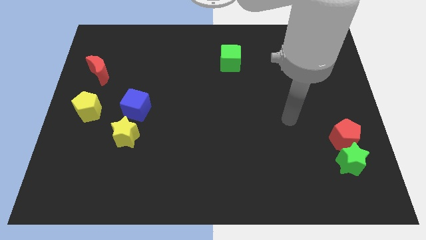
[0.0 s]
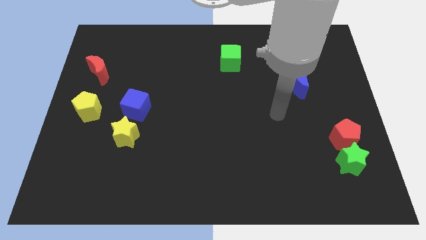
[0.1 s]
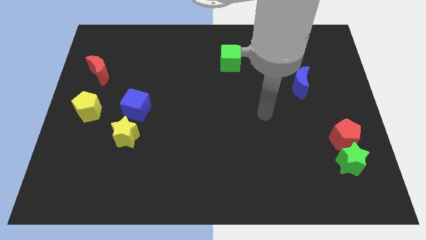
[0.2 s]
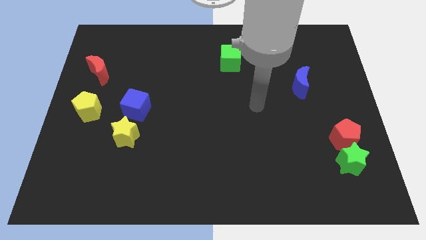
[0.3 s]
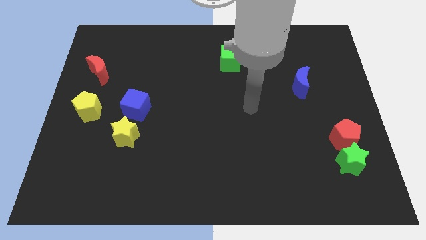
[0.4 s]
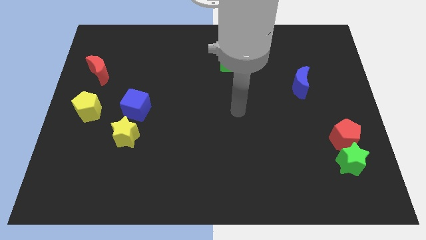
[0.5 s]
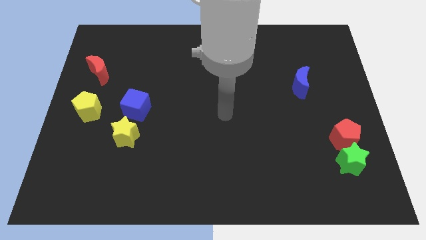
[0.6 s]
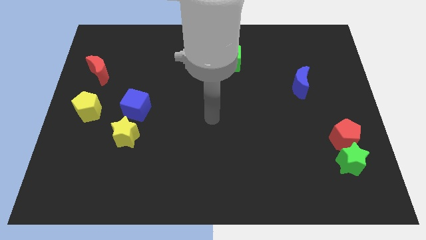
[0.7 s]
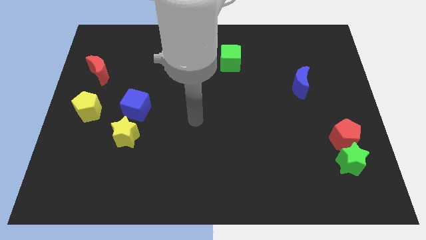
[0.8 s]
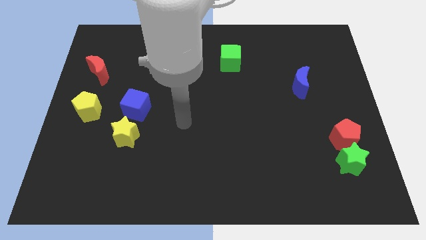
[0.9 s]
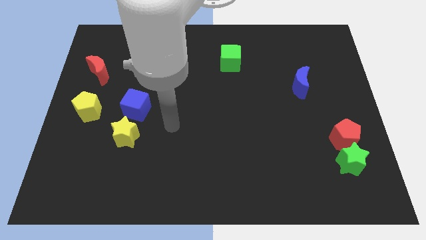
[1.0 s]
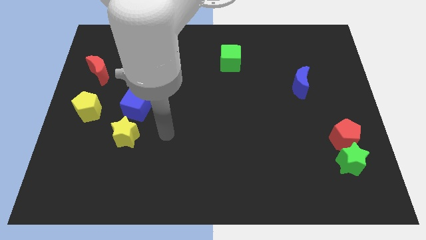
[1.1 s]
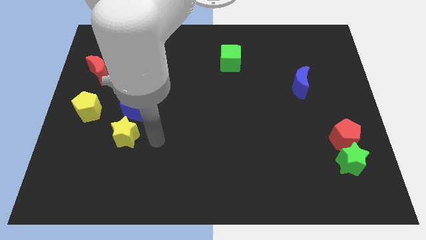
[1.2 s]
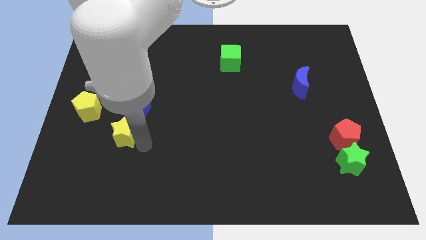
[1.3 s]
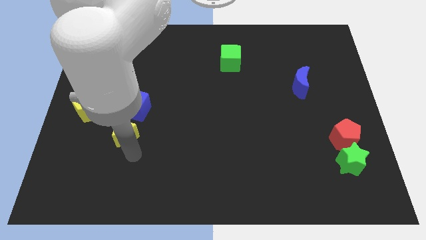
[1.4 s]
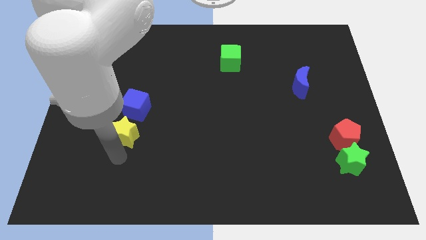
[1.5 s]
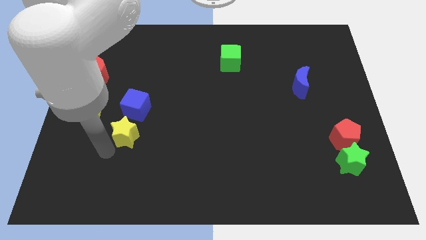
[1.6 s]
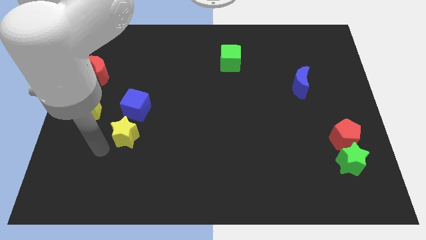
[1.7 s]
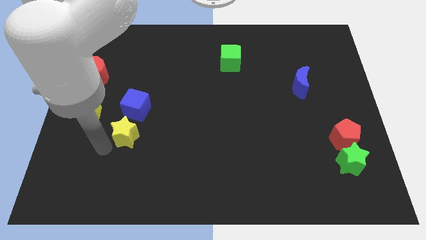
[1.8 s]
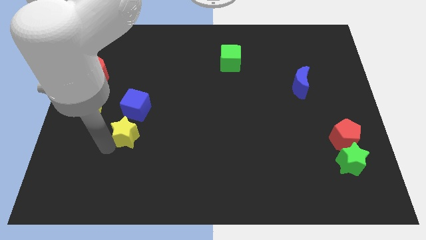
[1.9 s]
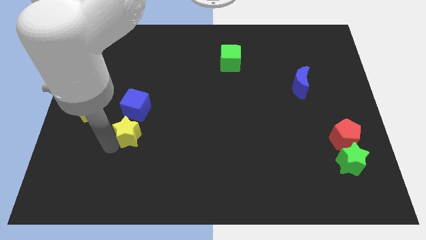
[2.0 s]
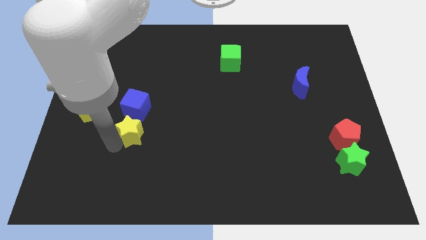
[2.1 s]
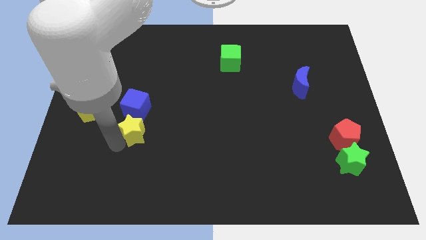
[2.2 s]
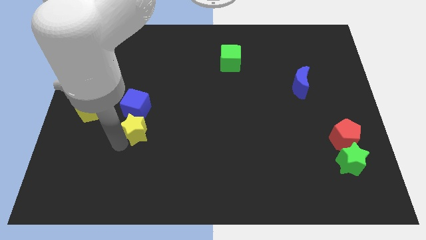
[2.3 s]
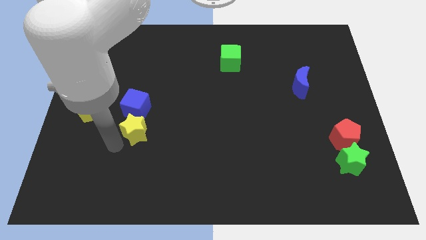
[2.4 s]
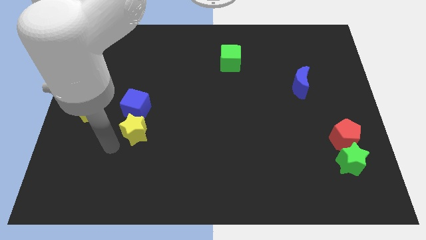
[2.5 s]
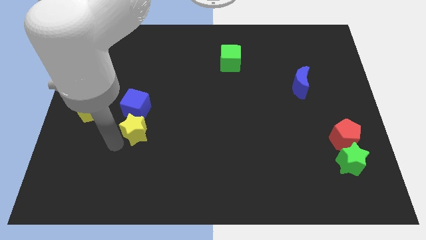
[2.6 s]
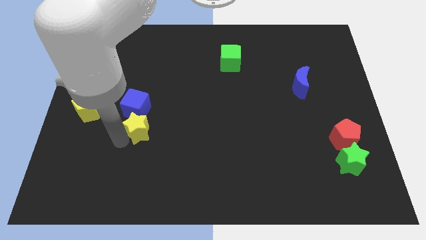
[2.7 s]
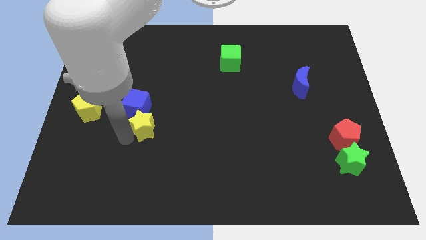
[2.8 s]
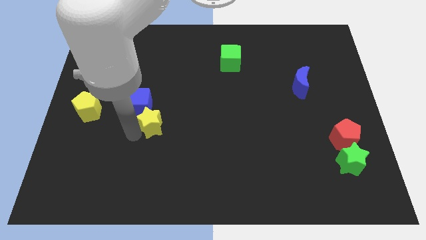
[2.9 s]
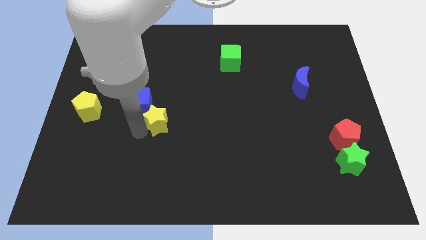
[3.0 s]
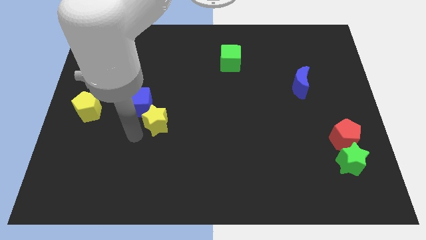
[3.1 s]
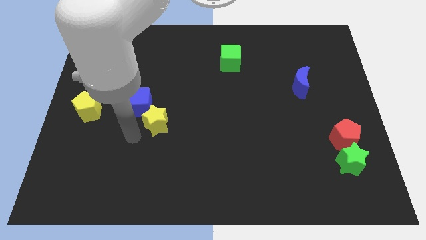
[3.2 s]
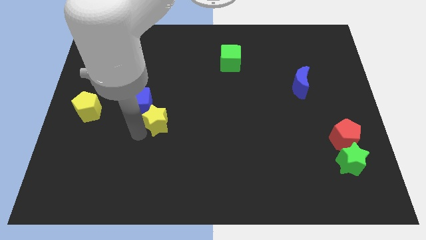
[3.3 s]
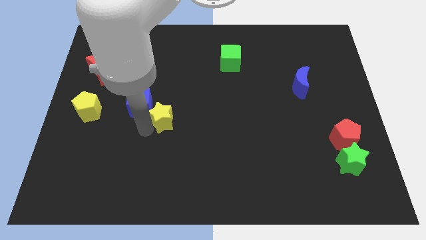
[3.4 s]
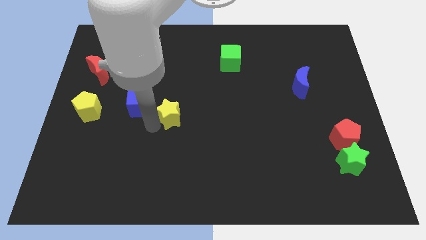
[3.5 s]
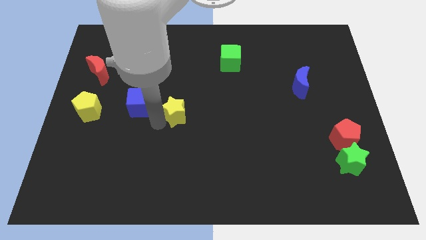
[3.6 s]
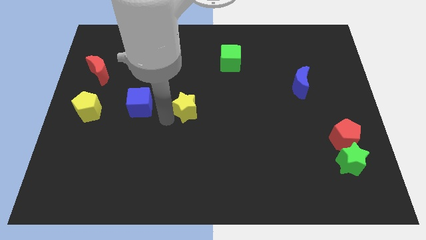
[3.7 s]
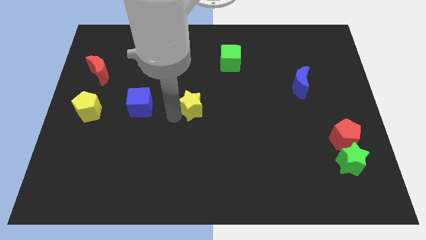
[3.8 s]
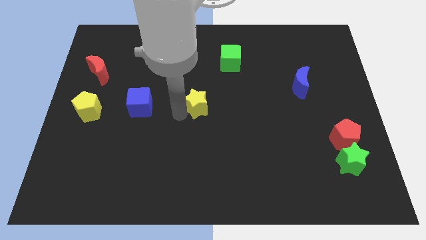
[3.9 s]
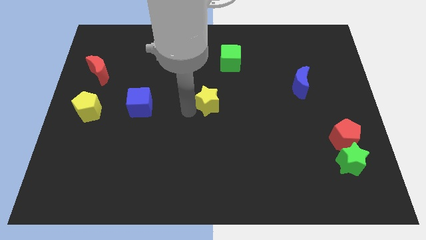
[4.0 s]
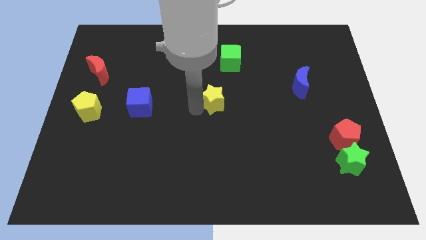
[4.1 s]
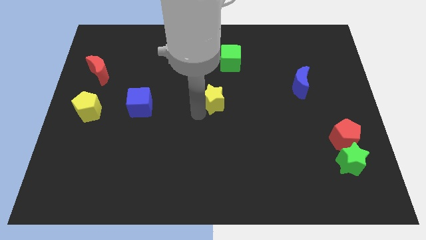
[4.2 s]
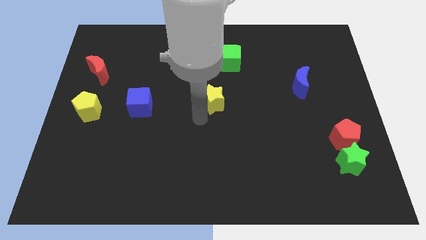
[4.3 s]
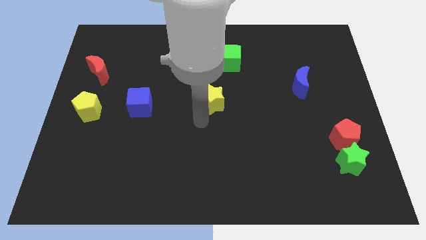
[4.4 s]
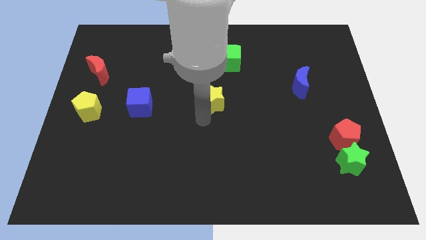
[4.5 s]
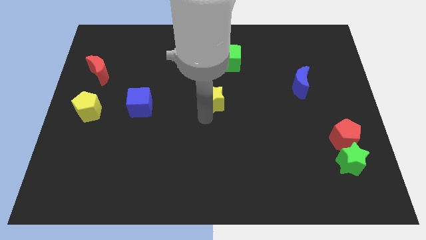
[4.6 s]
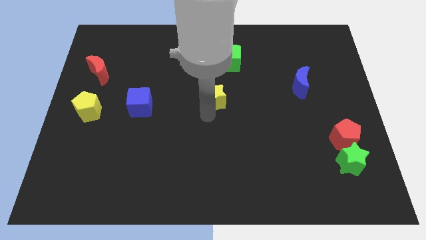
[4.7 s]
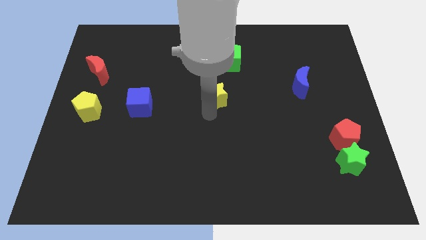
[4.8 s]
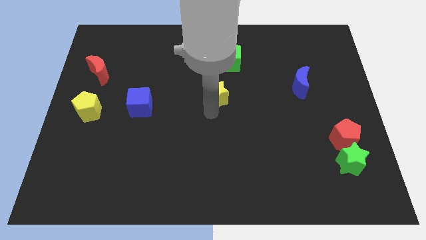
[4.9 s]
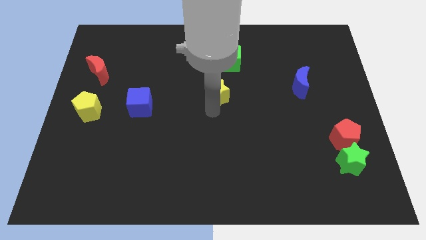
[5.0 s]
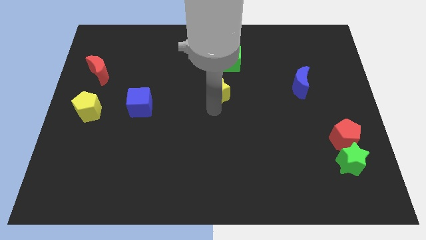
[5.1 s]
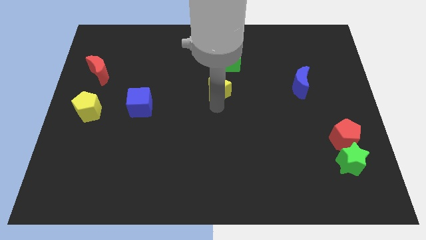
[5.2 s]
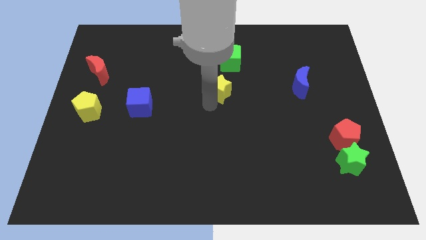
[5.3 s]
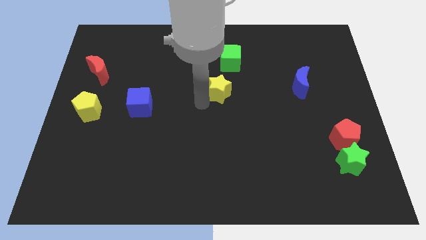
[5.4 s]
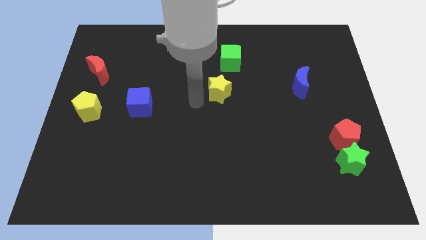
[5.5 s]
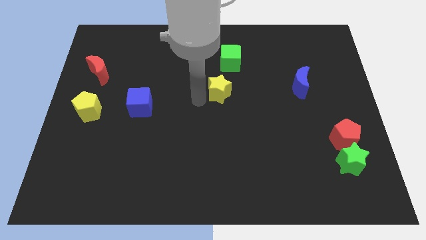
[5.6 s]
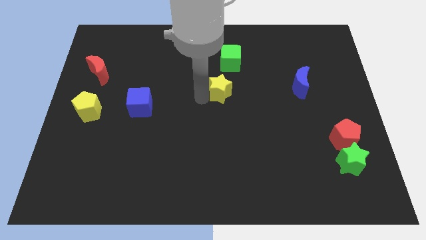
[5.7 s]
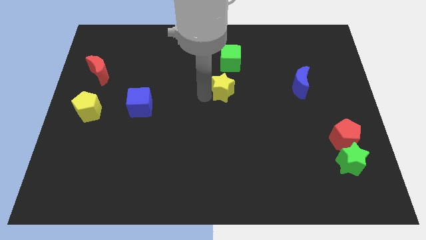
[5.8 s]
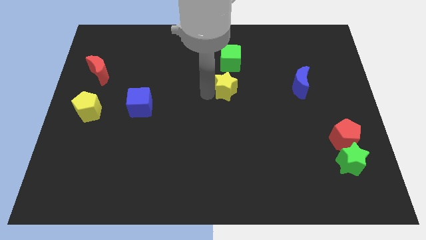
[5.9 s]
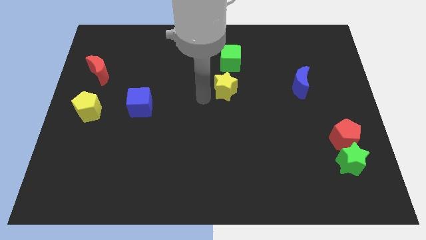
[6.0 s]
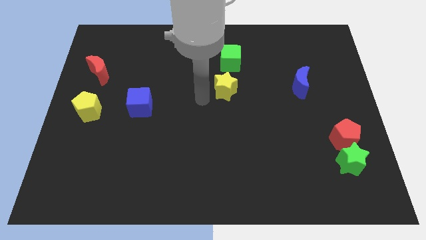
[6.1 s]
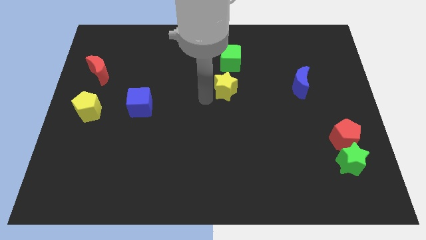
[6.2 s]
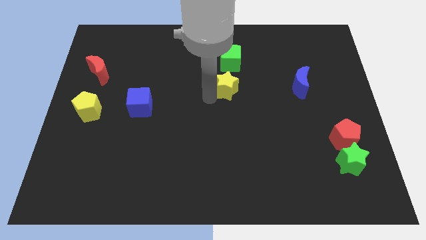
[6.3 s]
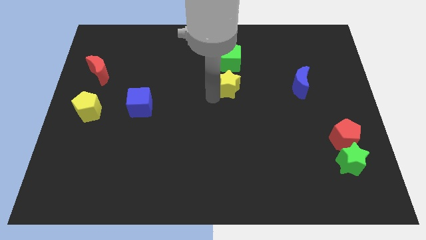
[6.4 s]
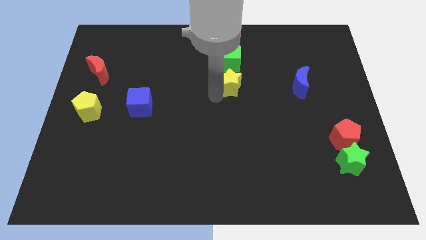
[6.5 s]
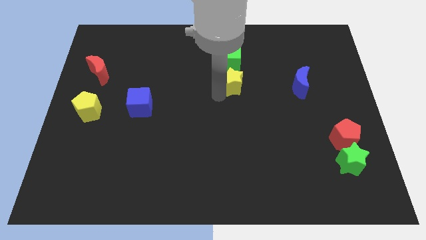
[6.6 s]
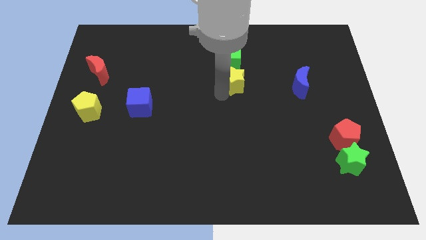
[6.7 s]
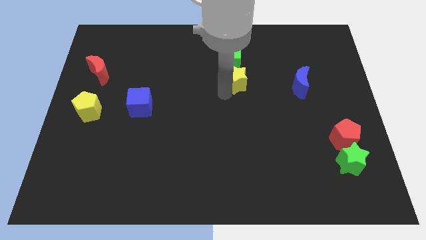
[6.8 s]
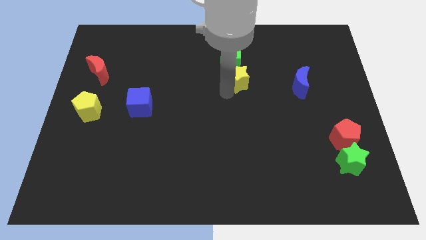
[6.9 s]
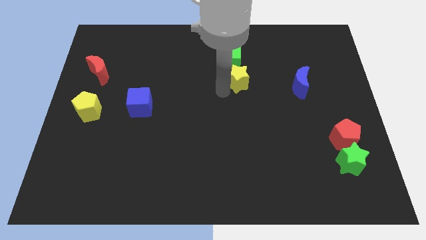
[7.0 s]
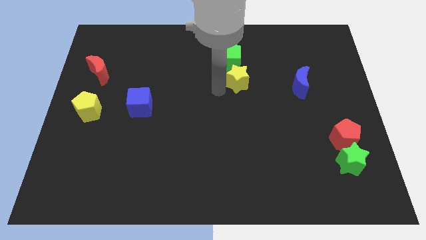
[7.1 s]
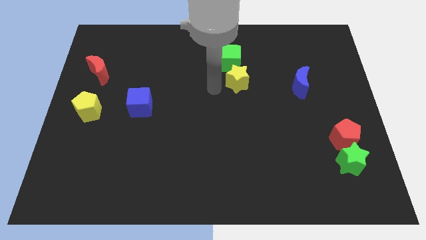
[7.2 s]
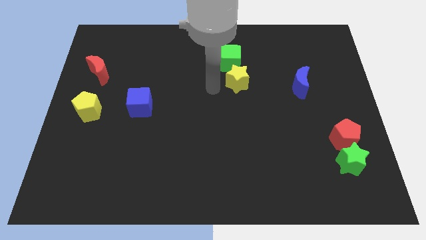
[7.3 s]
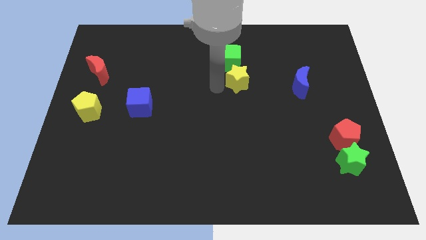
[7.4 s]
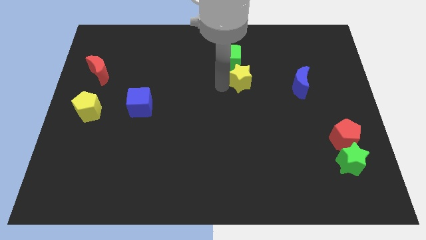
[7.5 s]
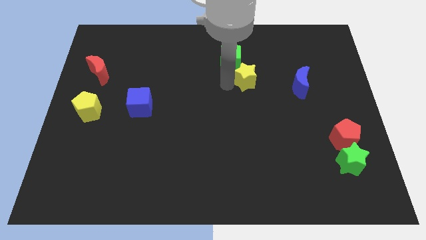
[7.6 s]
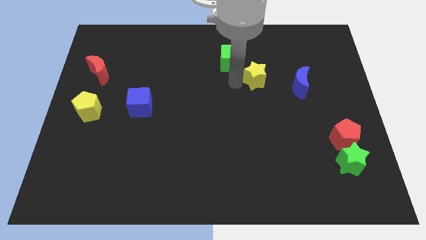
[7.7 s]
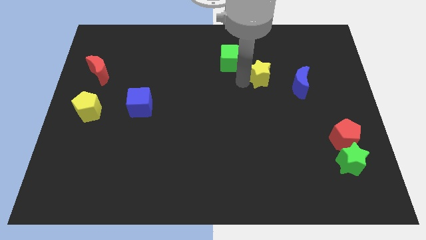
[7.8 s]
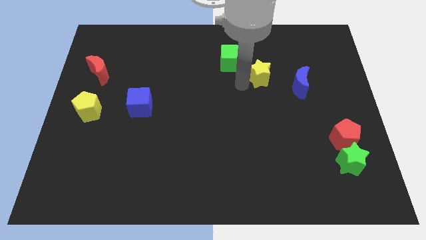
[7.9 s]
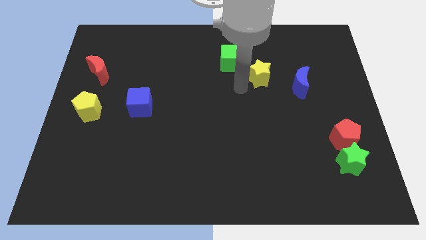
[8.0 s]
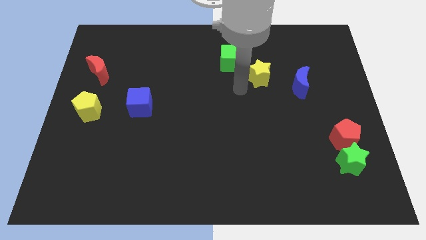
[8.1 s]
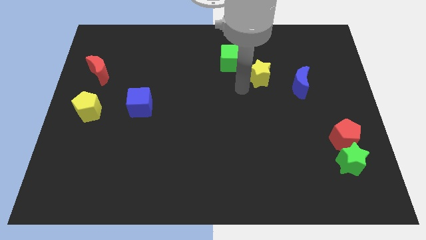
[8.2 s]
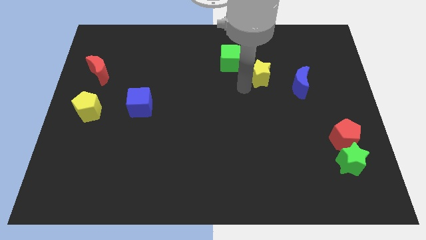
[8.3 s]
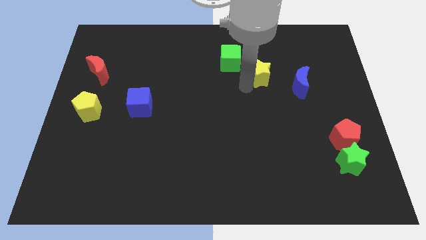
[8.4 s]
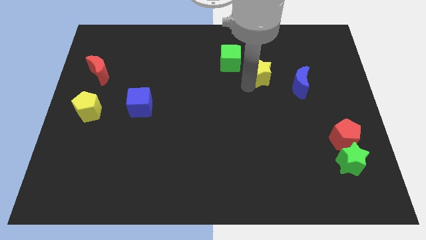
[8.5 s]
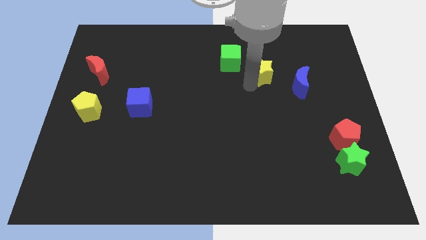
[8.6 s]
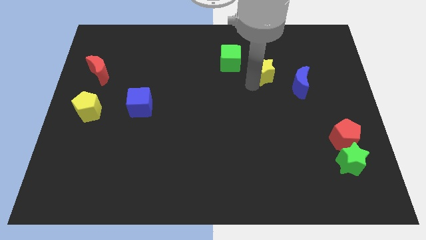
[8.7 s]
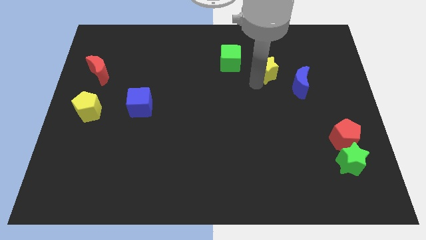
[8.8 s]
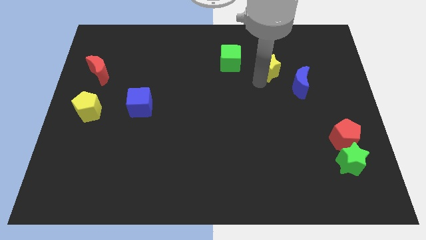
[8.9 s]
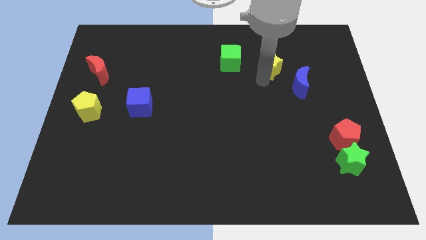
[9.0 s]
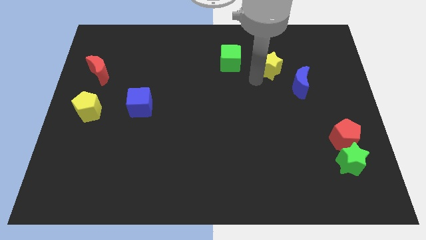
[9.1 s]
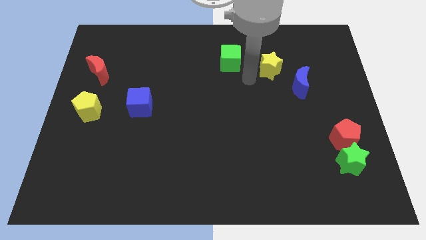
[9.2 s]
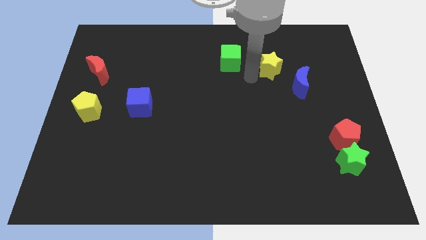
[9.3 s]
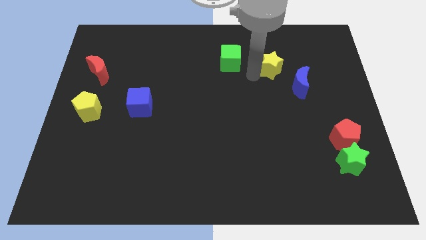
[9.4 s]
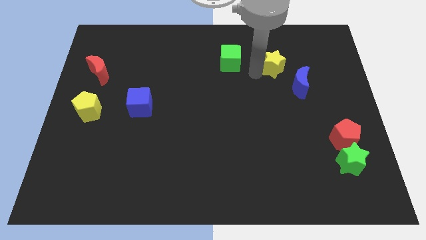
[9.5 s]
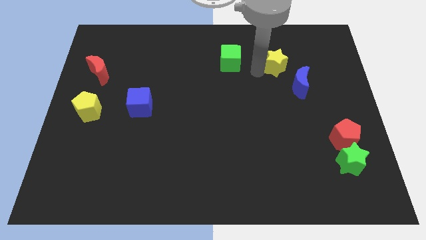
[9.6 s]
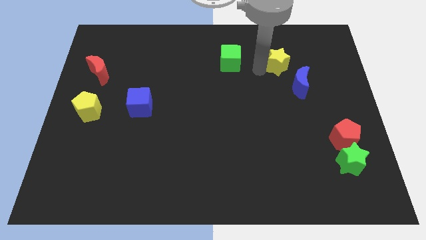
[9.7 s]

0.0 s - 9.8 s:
slide the yellow star above the blue moon
